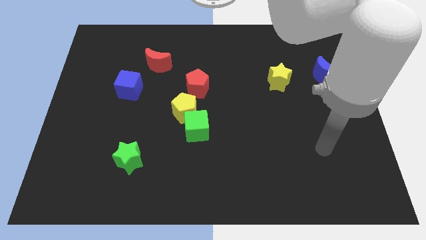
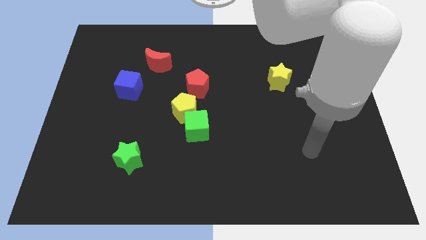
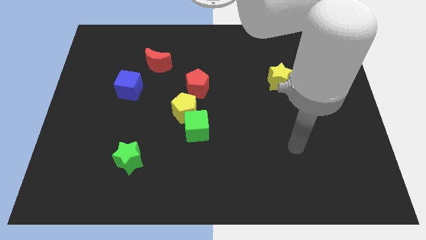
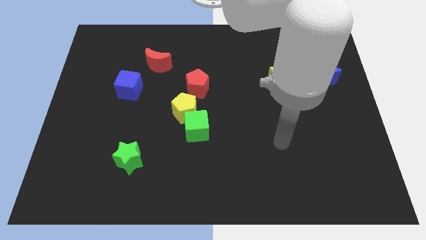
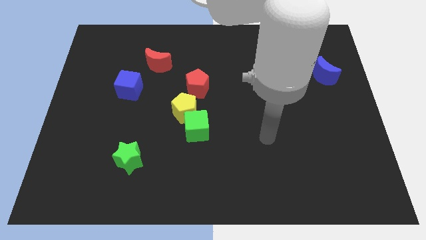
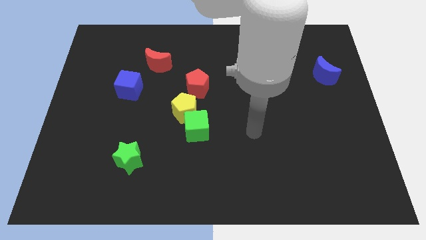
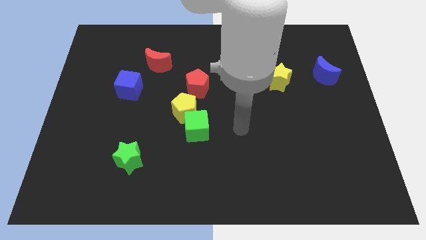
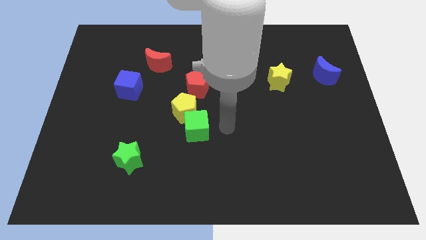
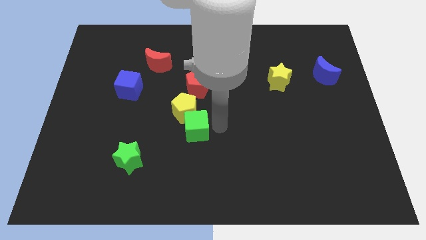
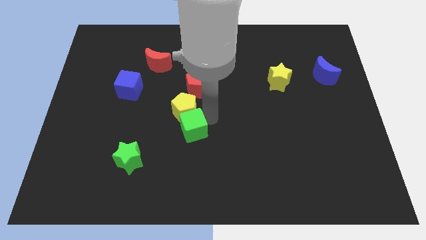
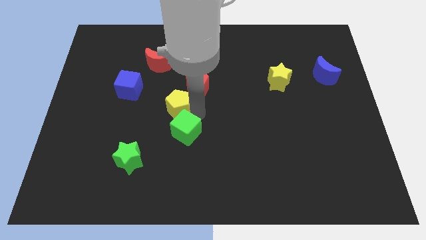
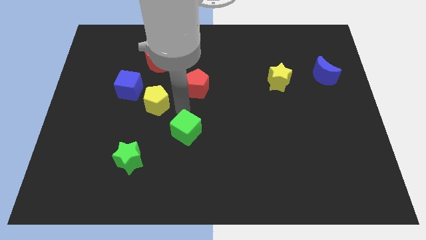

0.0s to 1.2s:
move the green cube away from the yellow pentagon

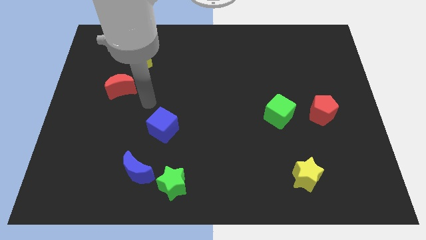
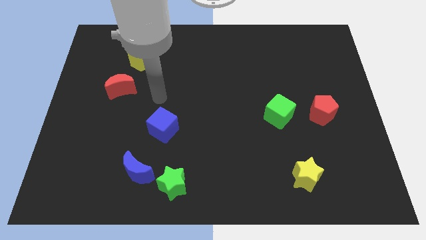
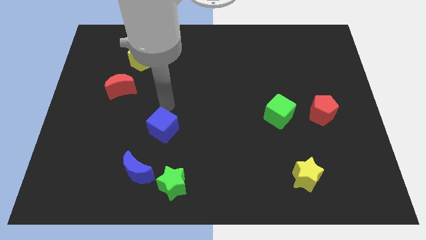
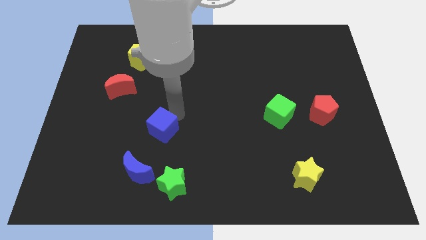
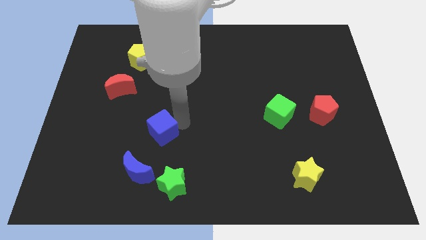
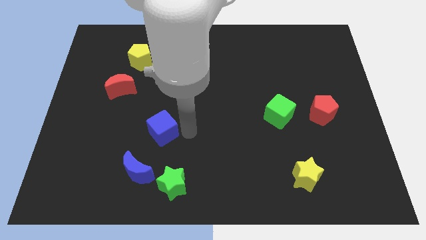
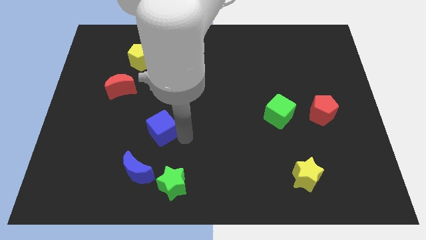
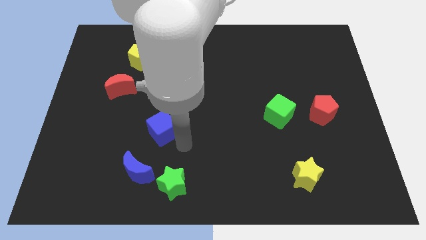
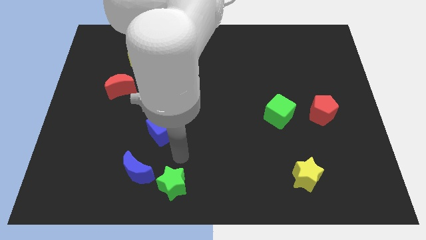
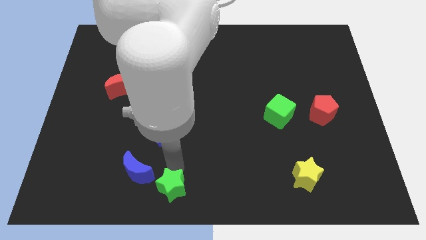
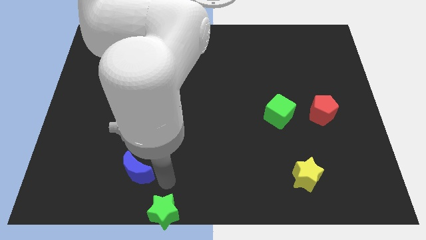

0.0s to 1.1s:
separate the blue moon from the green star

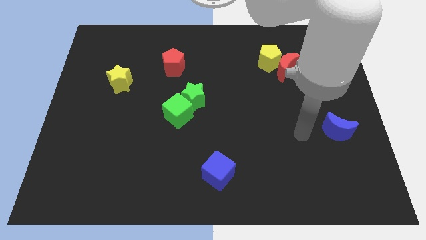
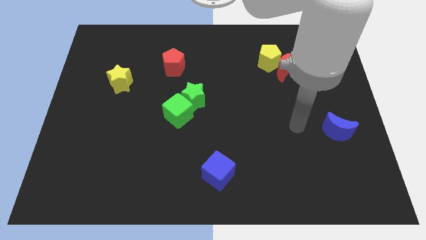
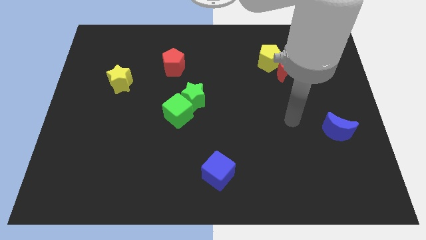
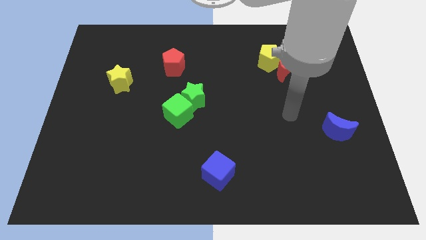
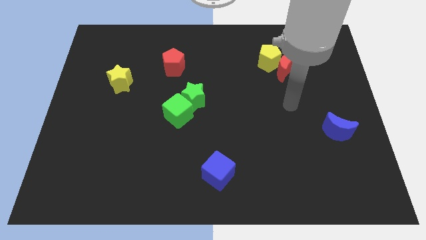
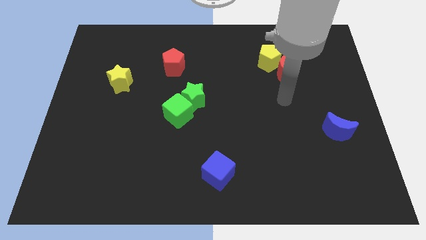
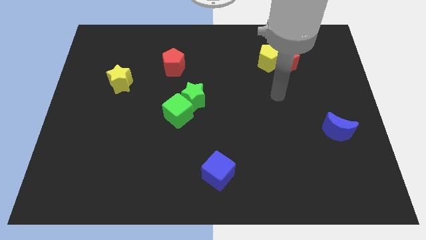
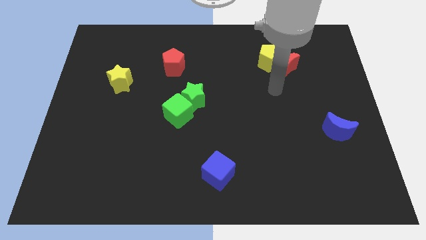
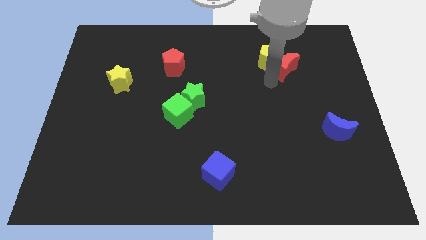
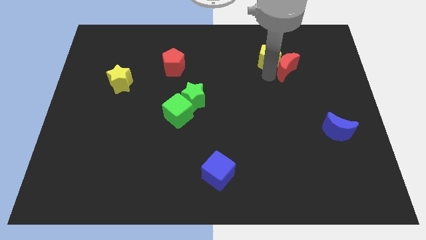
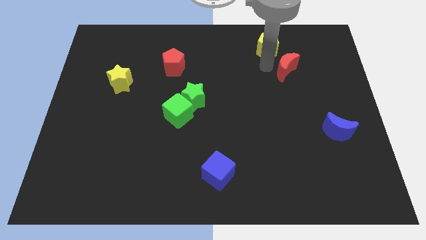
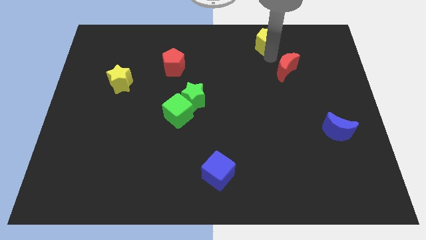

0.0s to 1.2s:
pull the red moon apart from the yellow pentagon

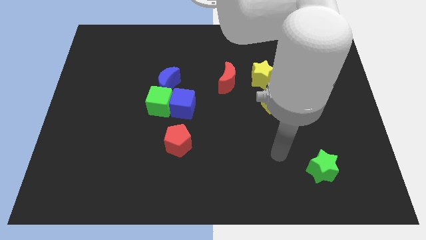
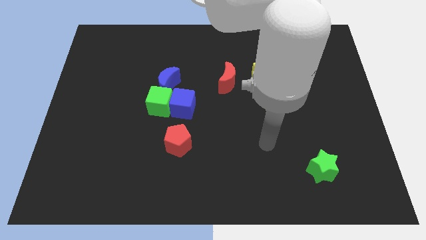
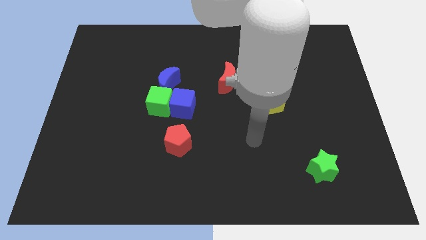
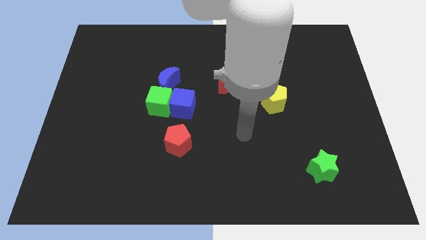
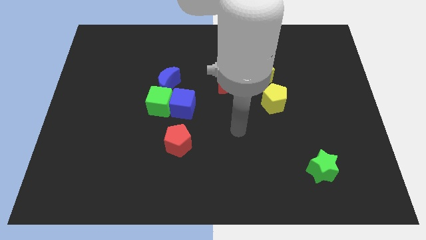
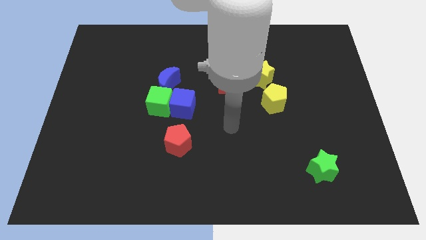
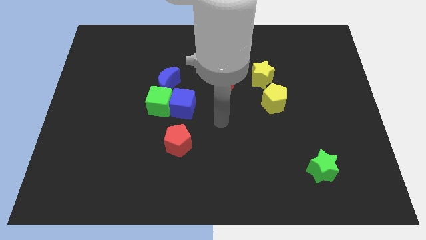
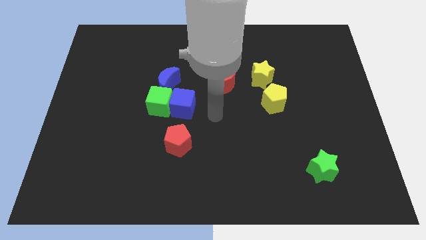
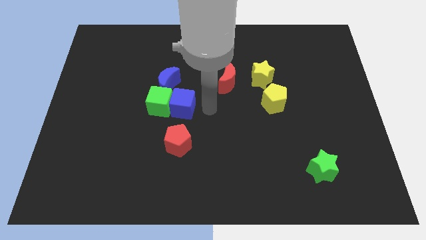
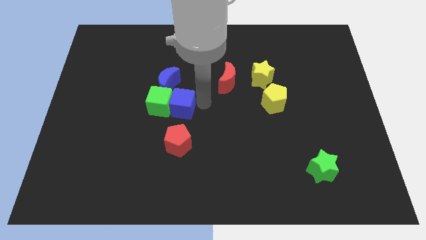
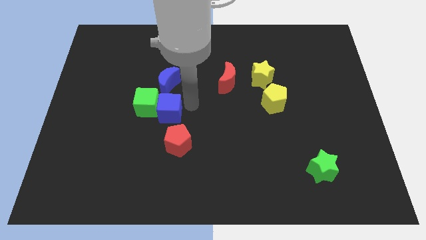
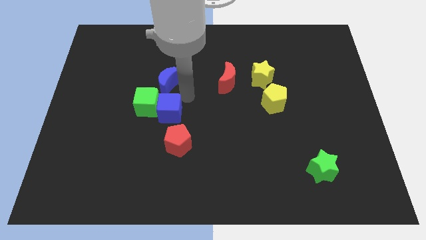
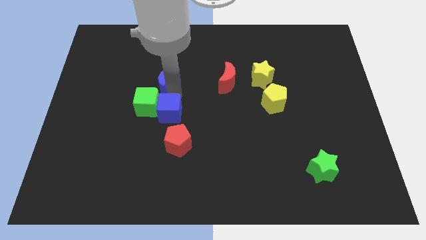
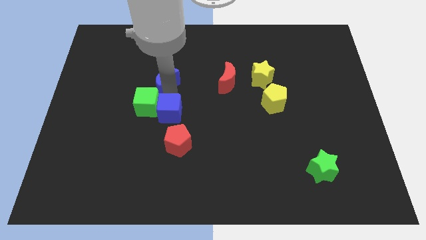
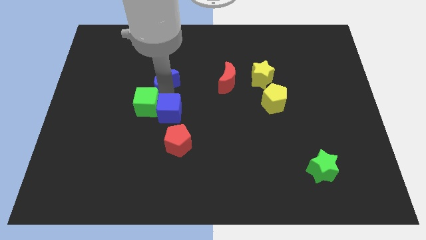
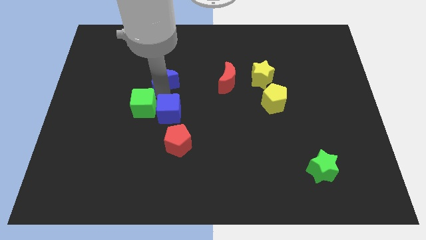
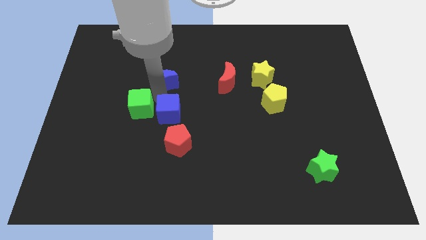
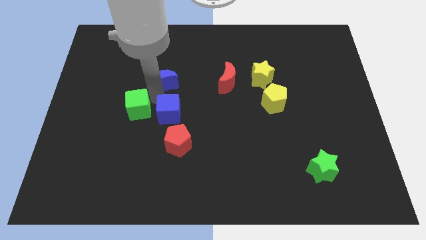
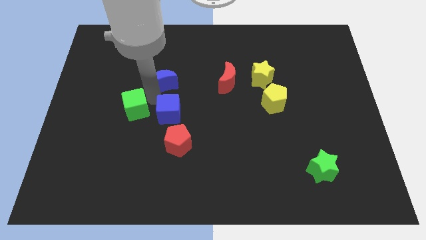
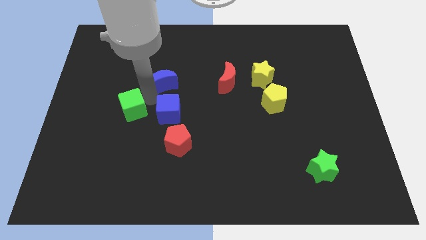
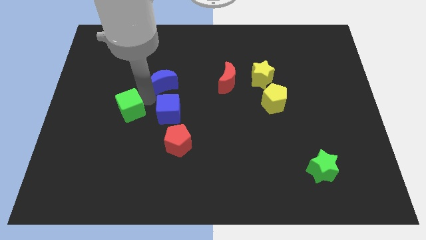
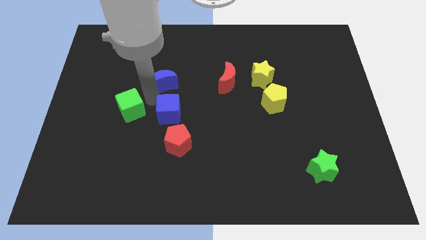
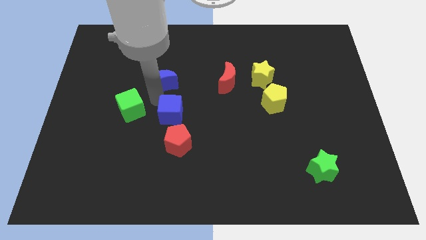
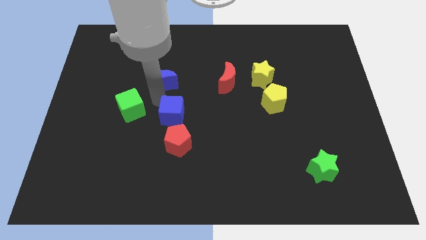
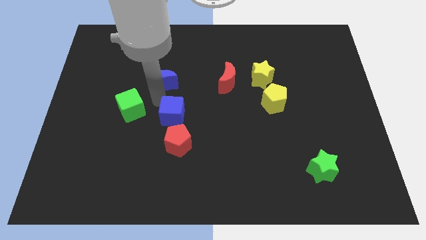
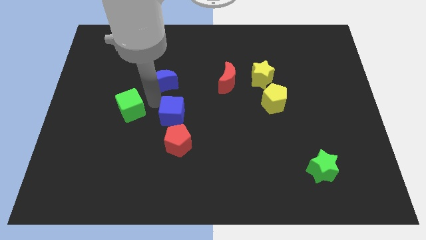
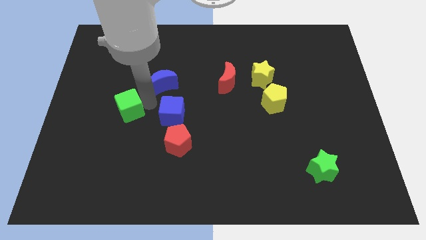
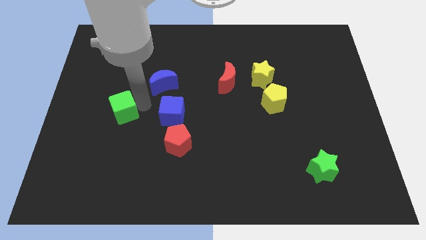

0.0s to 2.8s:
pull the green cube apart from the blue cube and blue moon

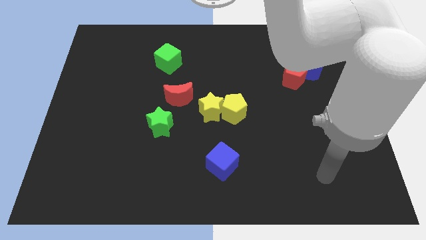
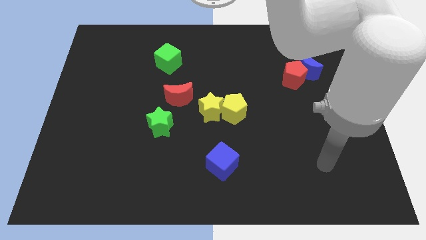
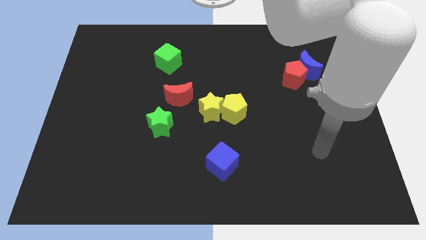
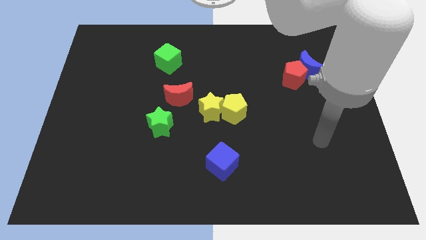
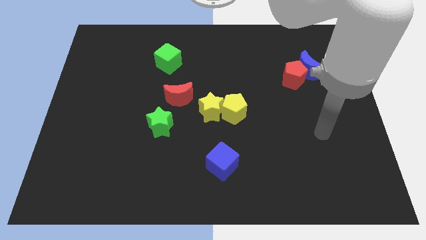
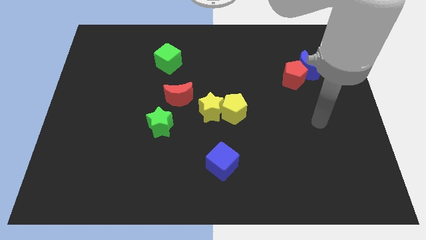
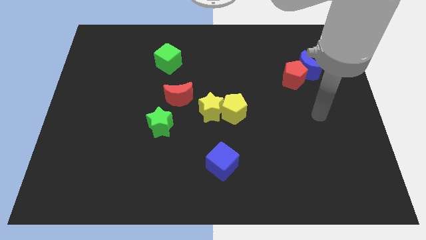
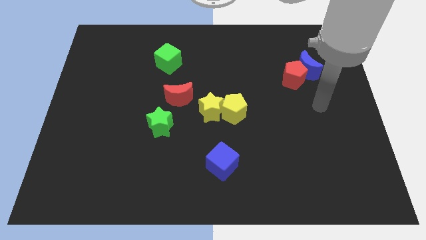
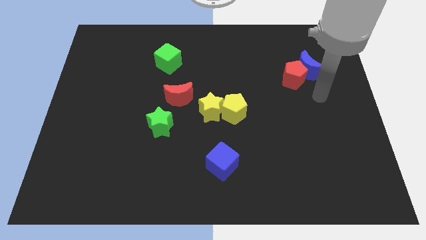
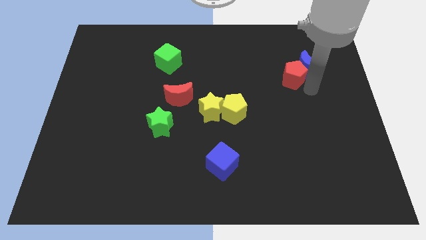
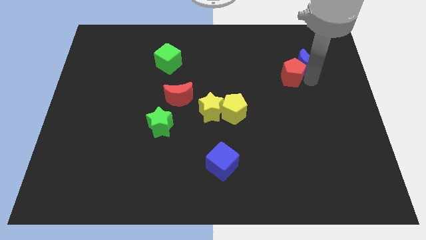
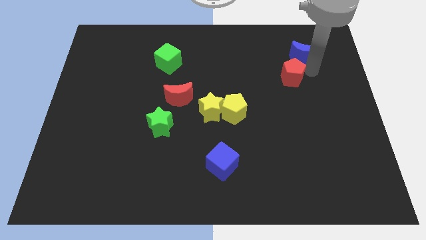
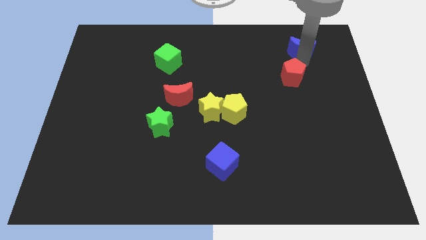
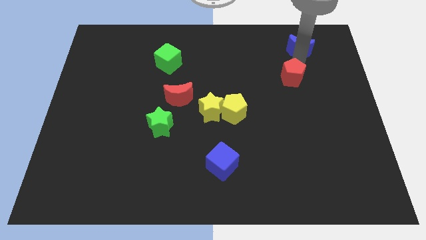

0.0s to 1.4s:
move the red pentagon away from the blue moon

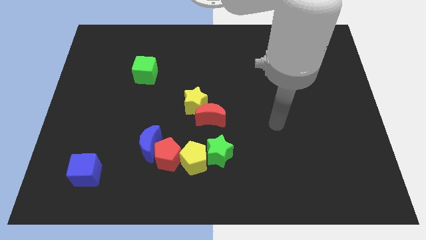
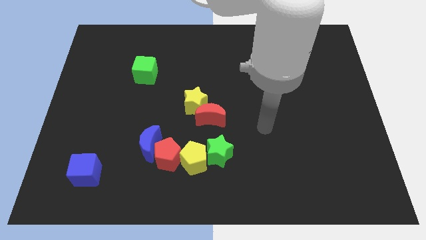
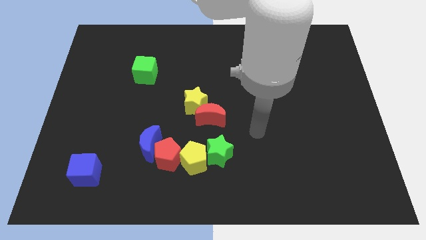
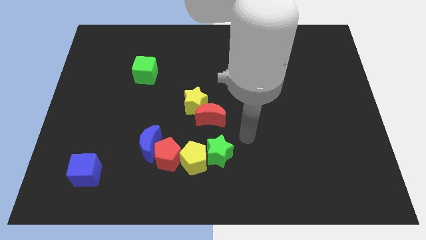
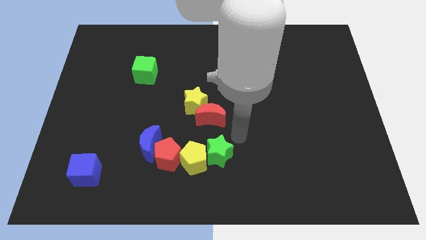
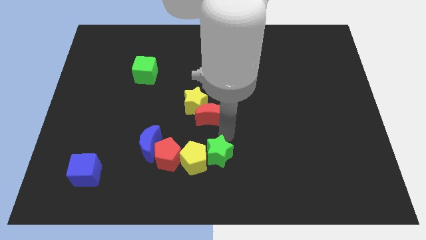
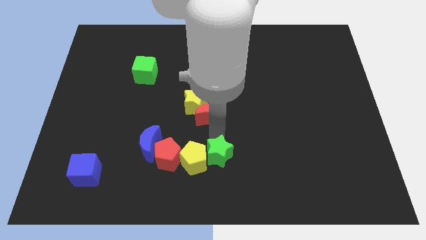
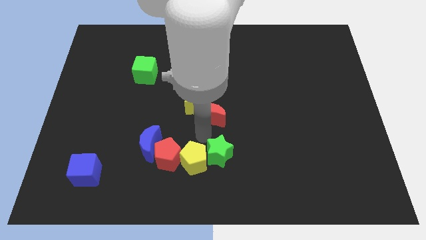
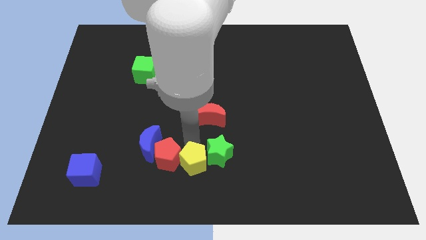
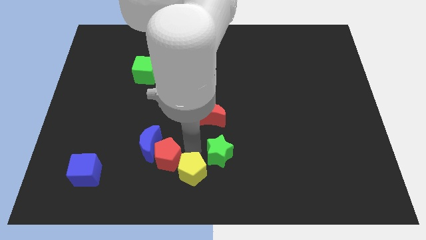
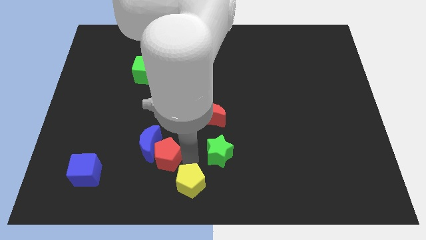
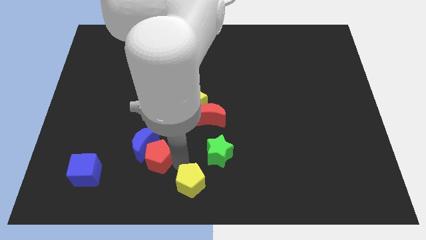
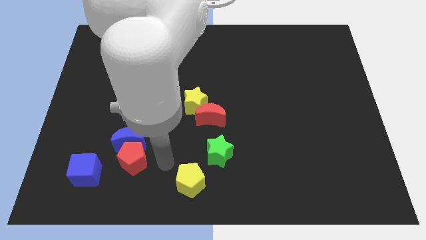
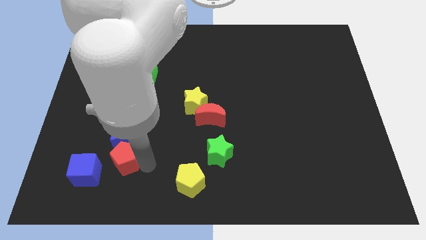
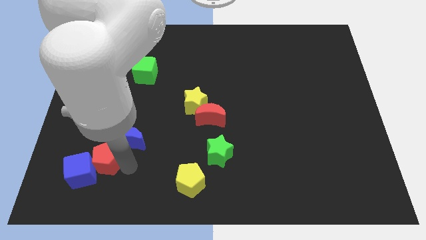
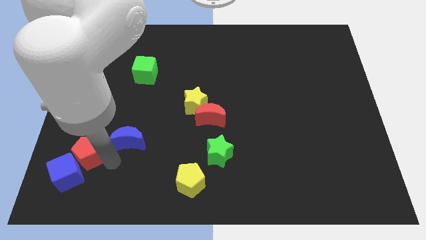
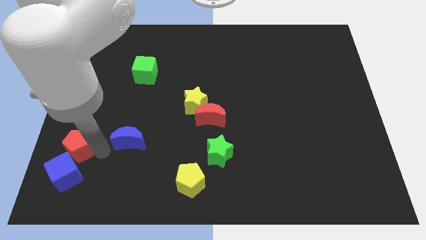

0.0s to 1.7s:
separate the blue moon from the red pentagon
